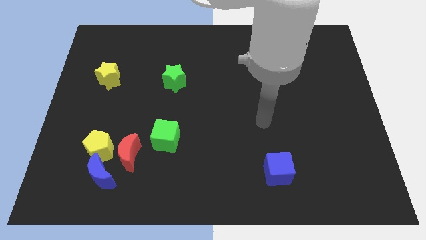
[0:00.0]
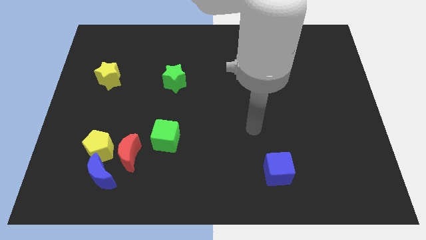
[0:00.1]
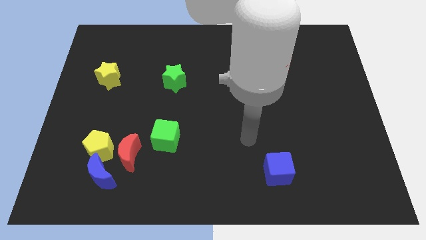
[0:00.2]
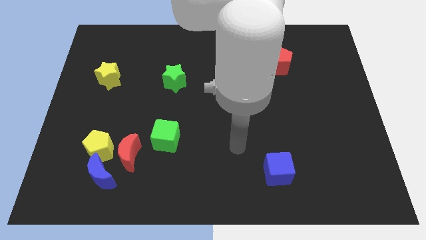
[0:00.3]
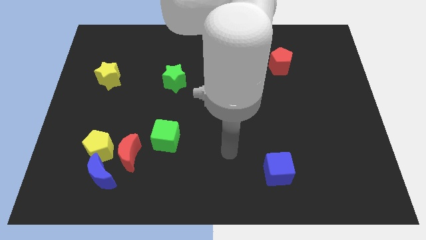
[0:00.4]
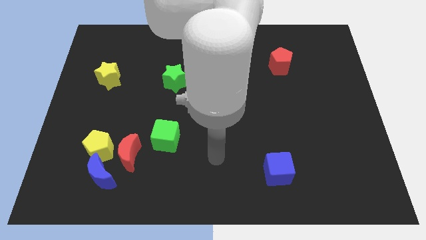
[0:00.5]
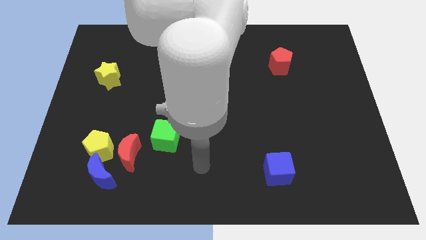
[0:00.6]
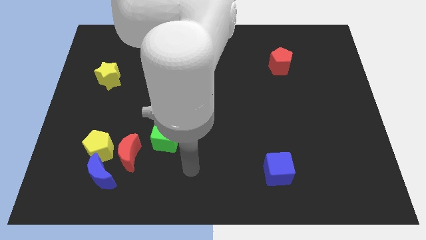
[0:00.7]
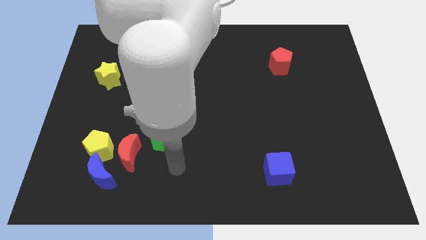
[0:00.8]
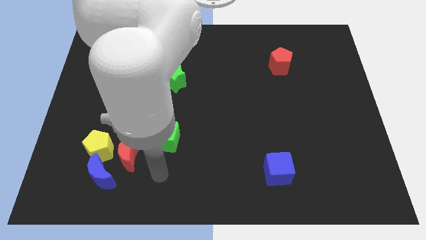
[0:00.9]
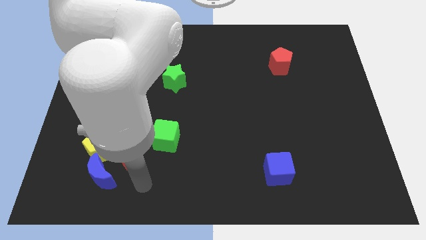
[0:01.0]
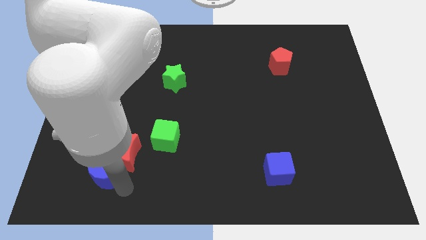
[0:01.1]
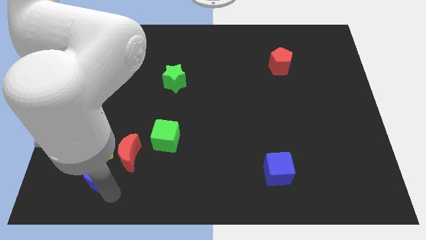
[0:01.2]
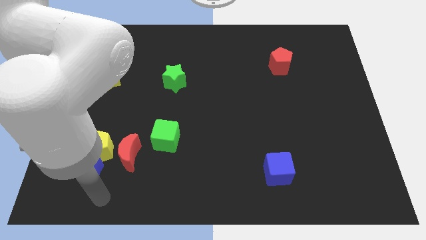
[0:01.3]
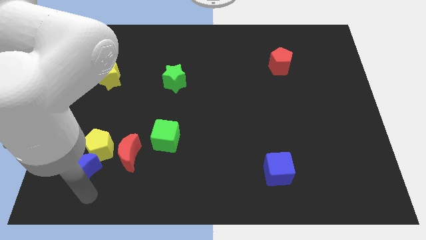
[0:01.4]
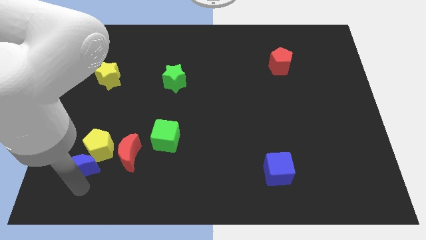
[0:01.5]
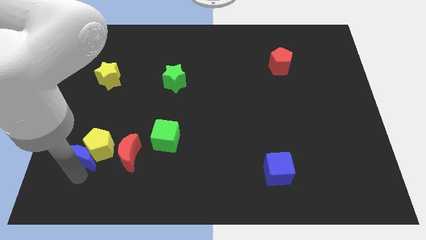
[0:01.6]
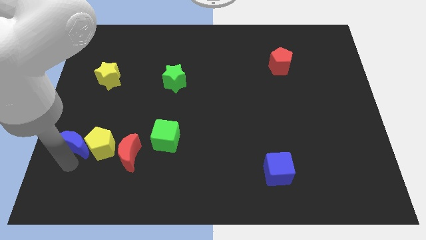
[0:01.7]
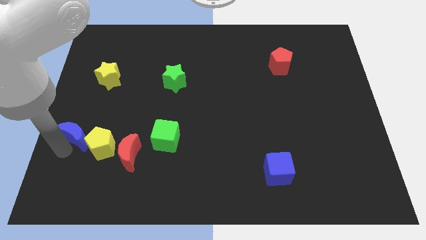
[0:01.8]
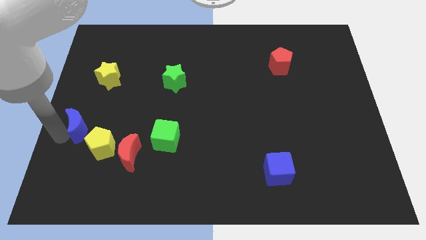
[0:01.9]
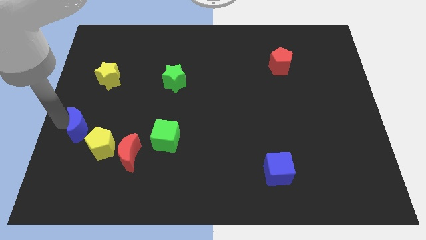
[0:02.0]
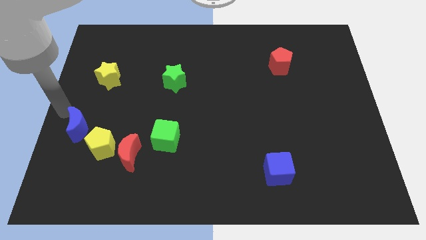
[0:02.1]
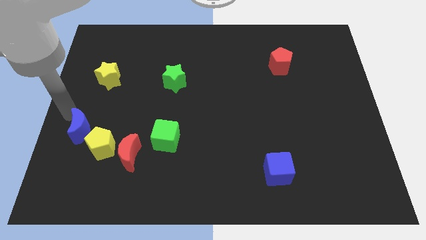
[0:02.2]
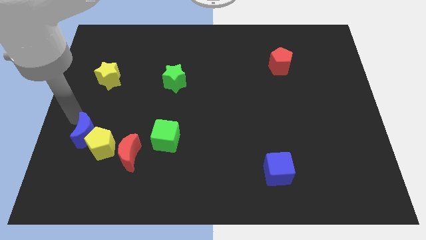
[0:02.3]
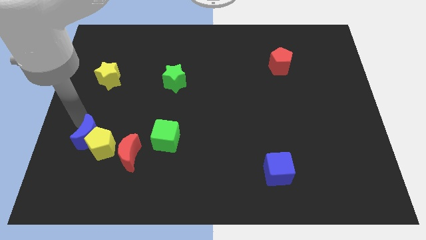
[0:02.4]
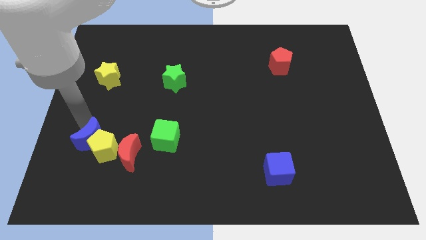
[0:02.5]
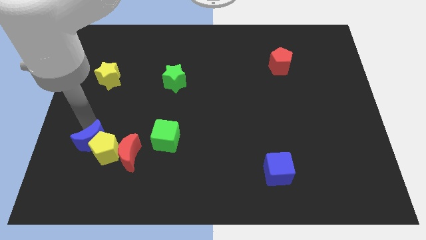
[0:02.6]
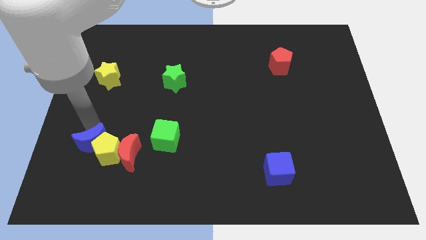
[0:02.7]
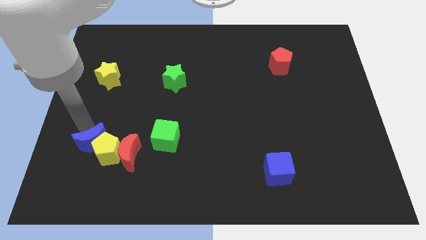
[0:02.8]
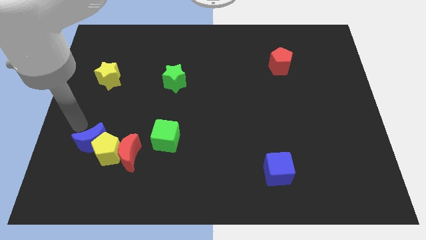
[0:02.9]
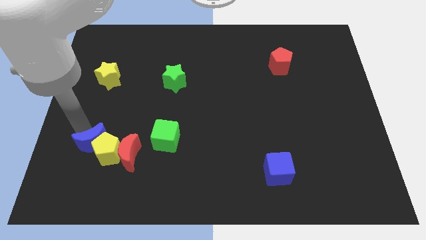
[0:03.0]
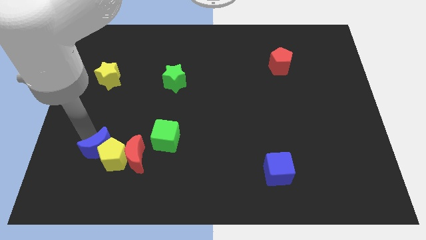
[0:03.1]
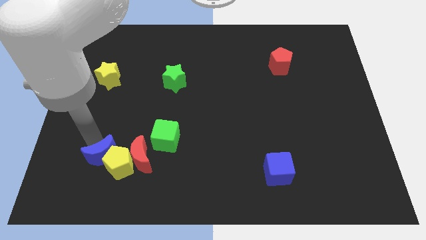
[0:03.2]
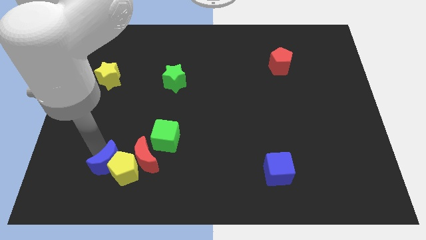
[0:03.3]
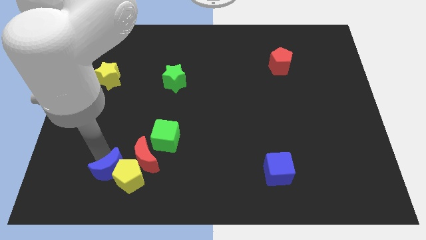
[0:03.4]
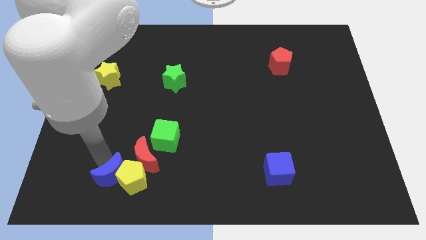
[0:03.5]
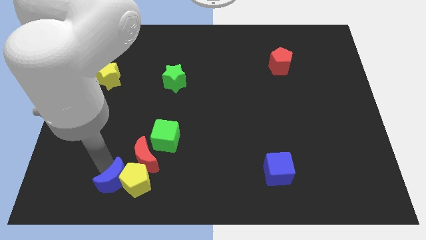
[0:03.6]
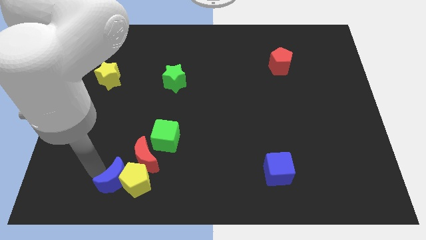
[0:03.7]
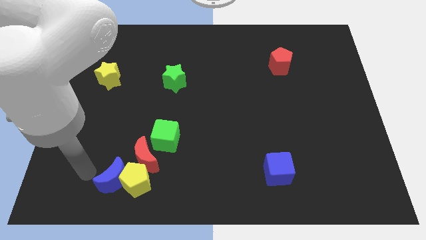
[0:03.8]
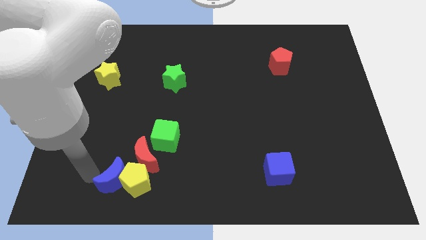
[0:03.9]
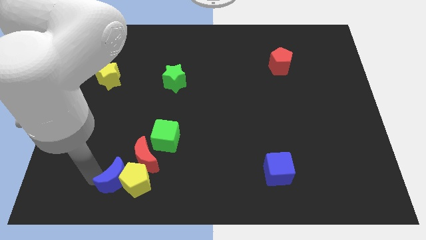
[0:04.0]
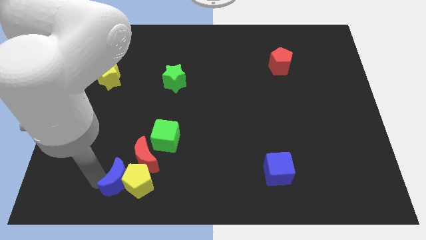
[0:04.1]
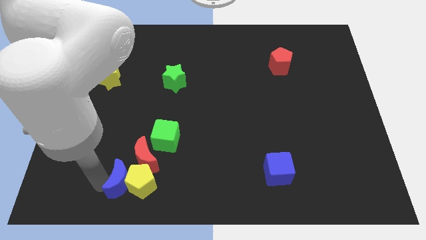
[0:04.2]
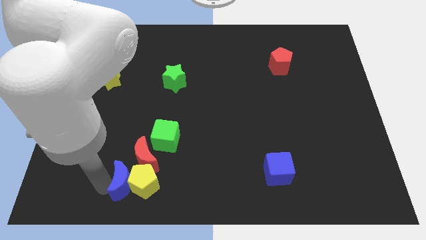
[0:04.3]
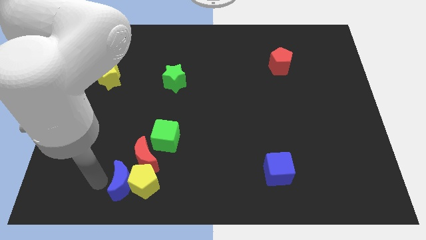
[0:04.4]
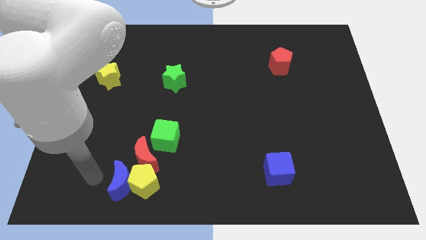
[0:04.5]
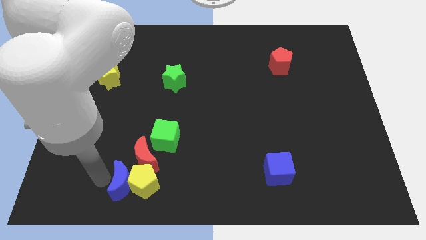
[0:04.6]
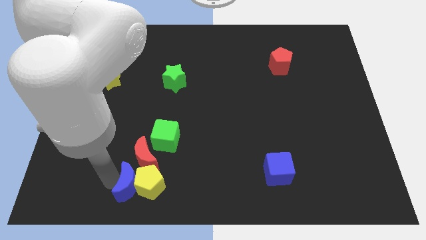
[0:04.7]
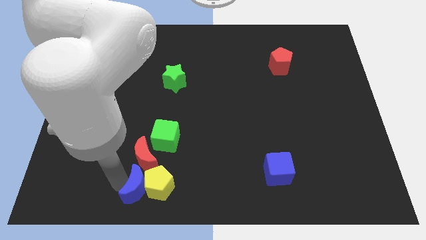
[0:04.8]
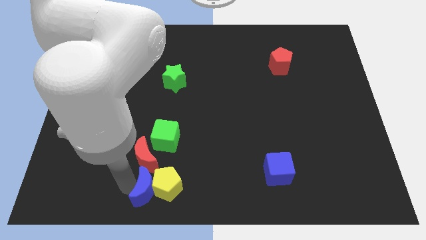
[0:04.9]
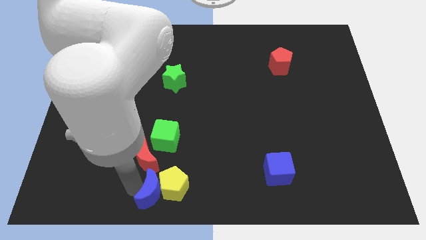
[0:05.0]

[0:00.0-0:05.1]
move the blue moon to the bottom
